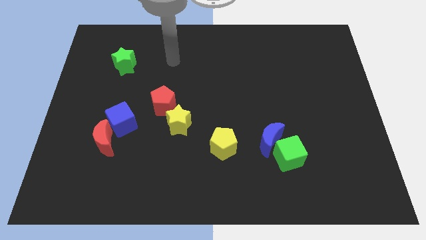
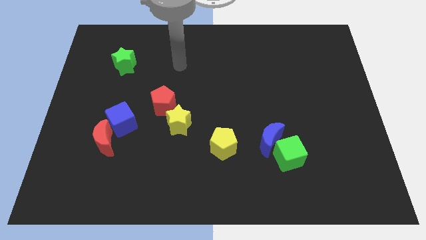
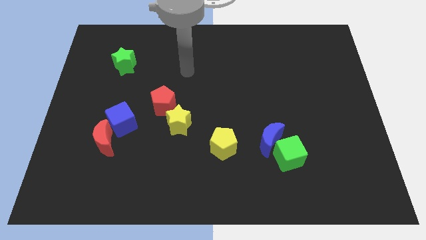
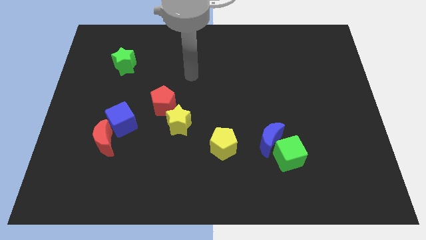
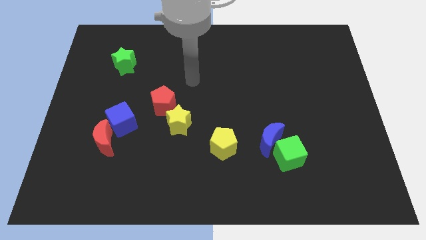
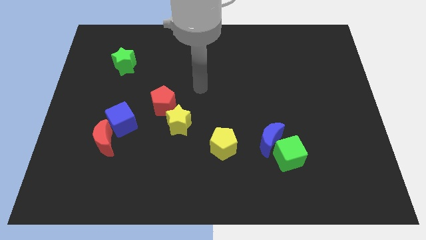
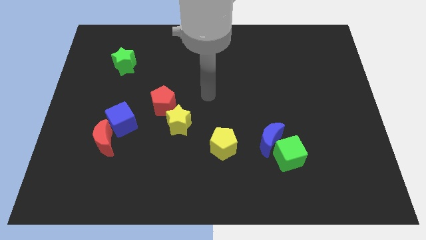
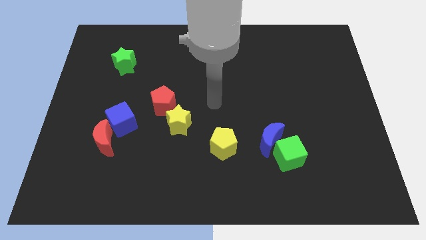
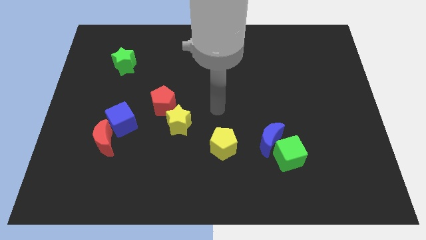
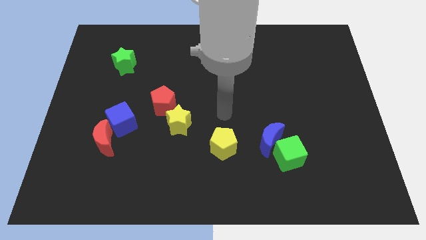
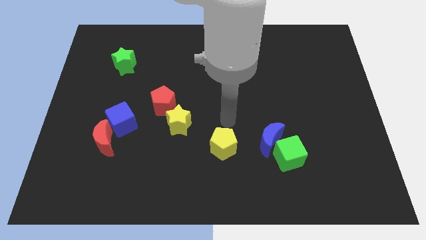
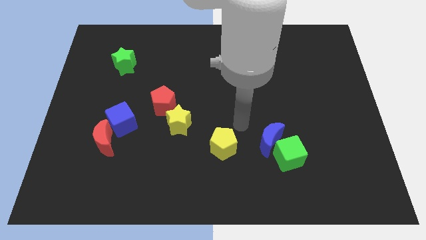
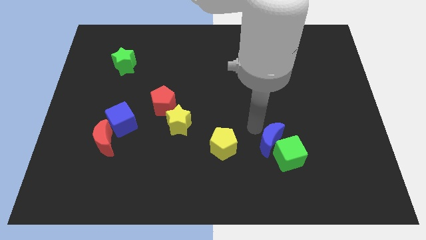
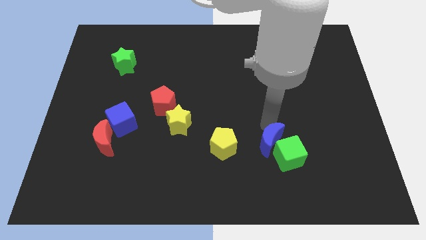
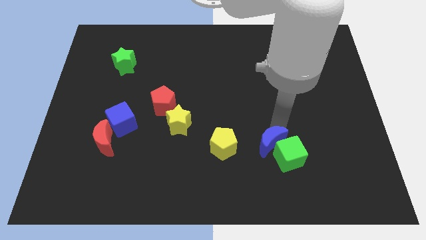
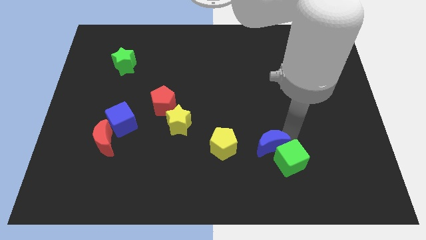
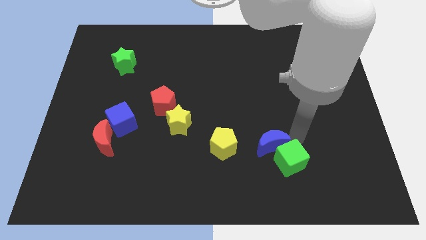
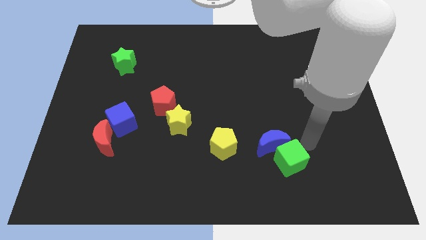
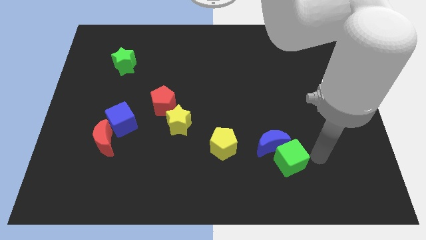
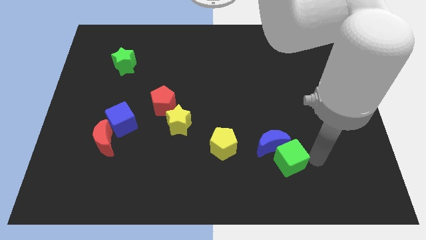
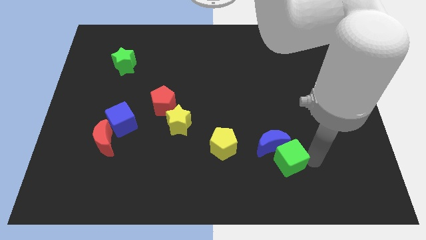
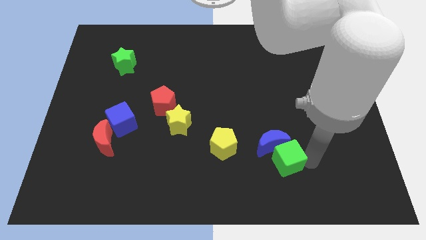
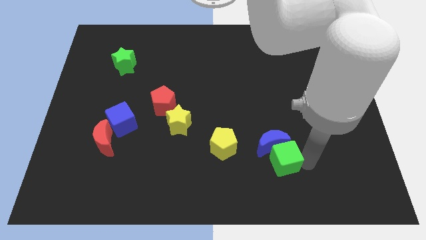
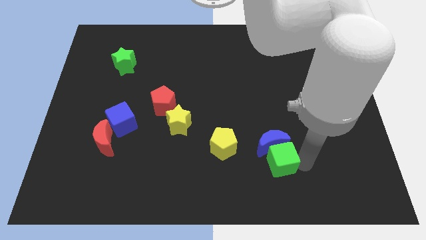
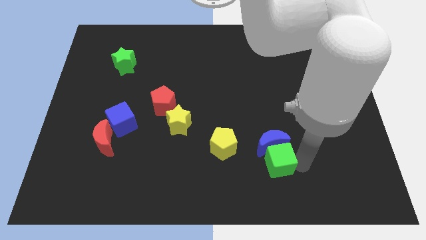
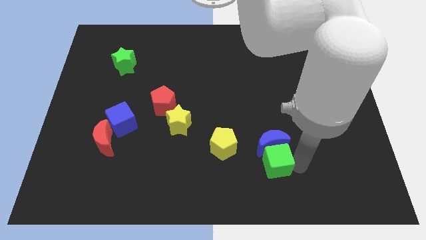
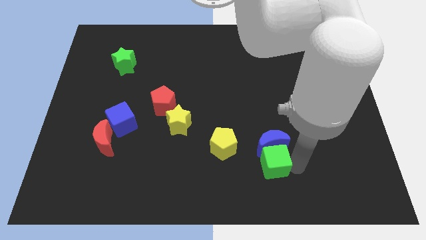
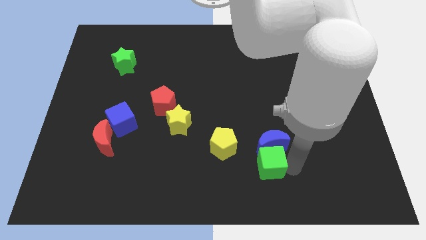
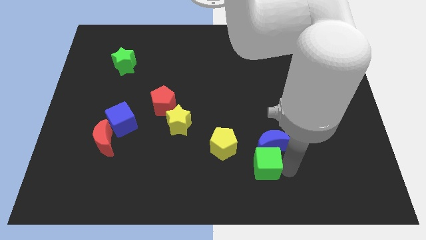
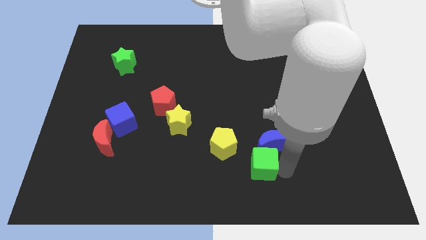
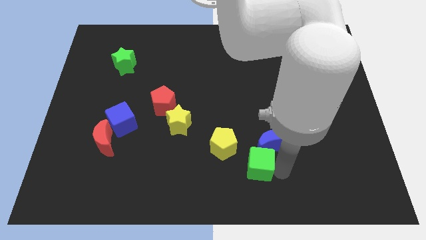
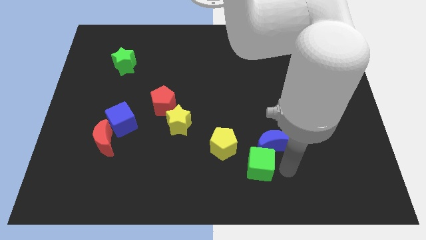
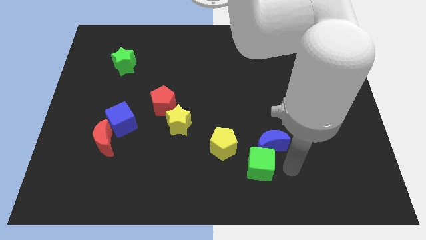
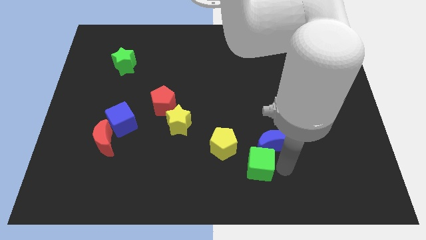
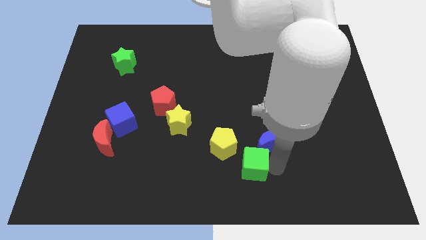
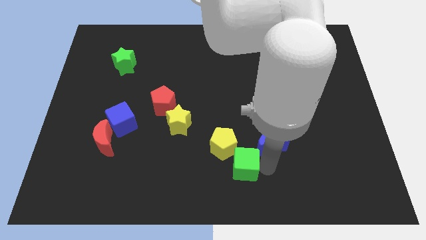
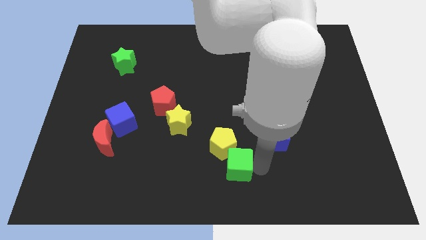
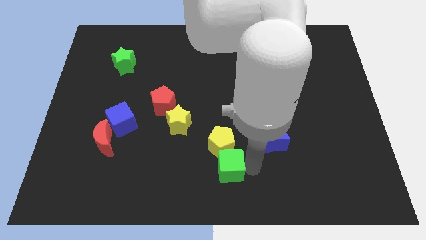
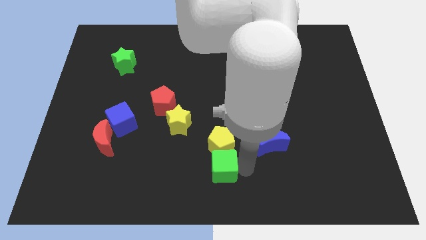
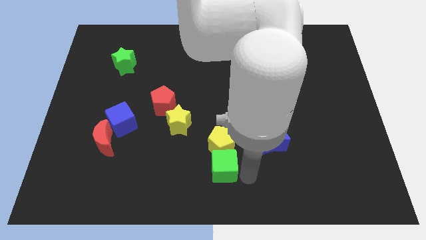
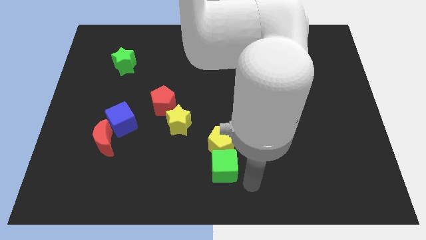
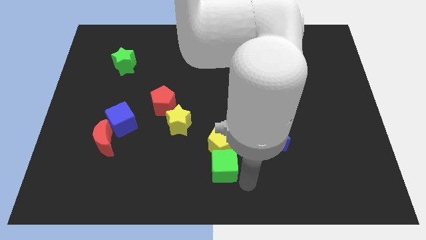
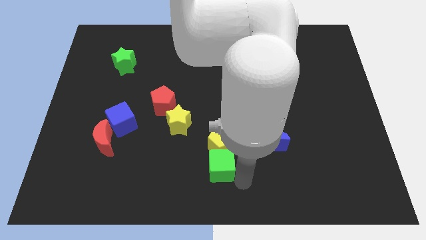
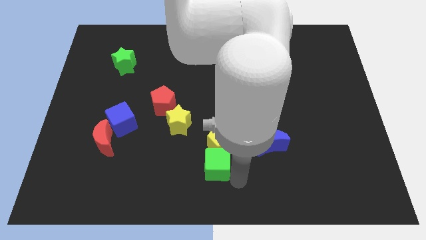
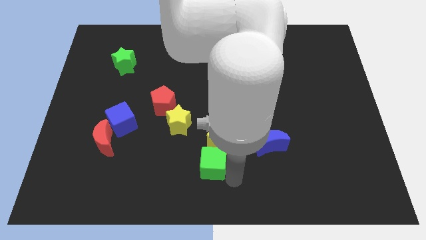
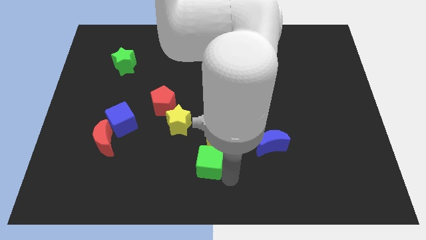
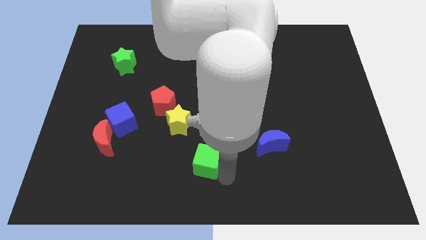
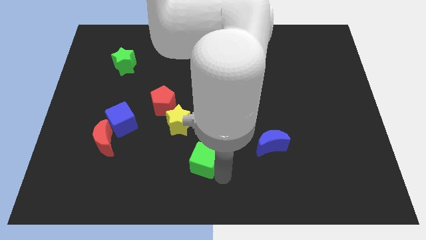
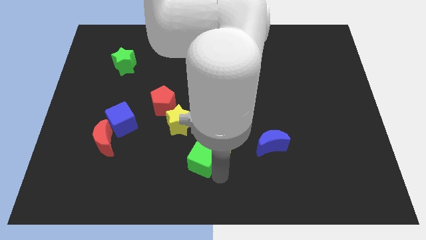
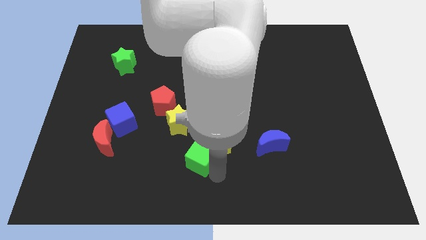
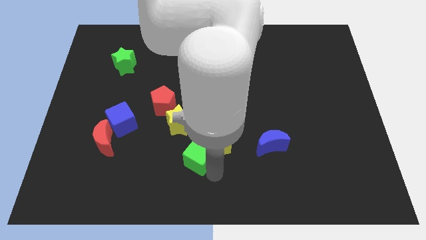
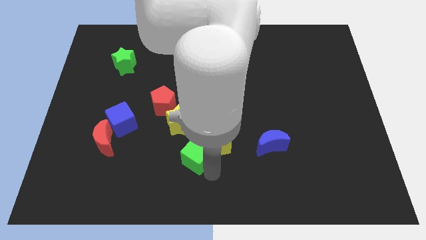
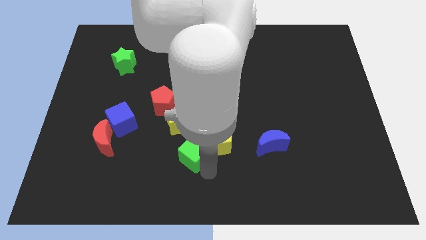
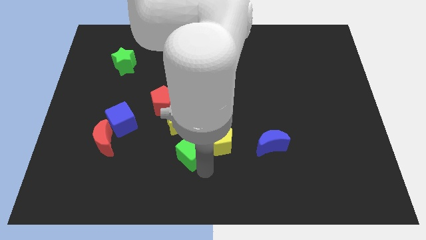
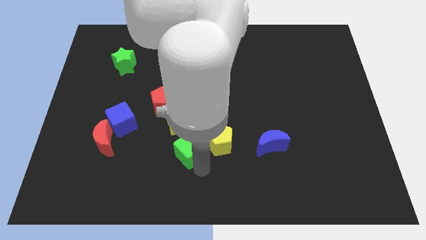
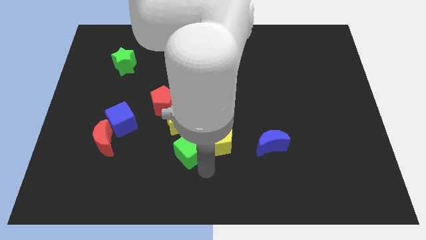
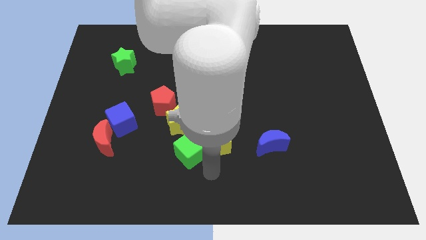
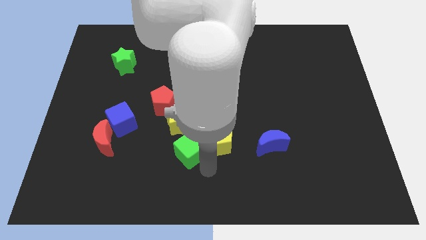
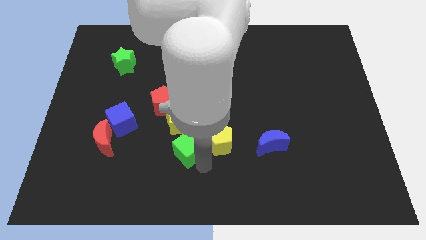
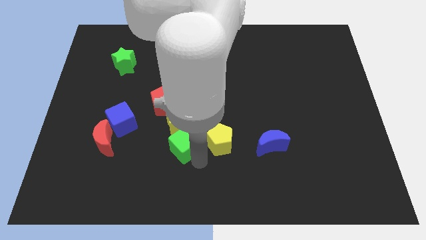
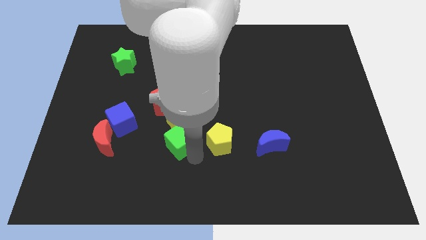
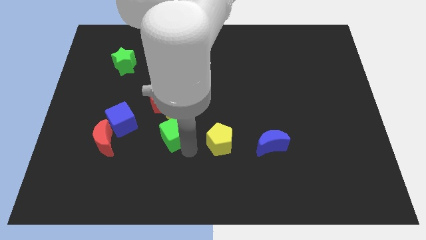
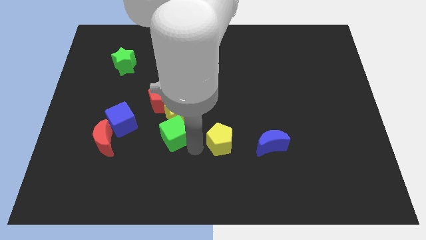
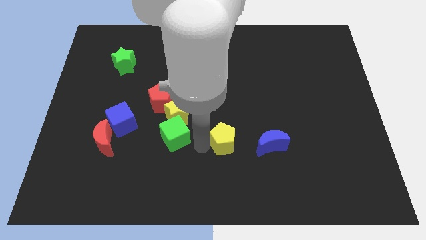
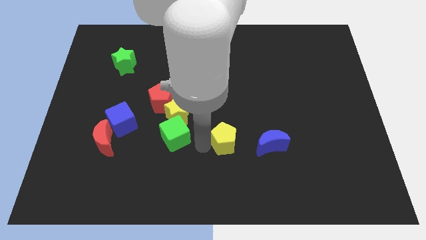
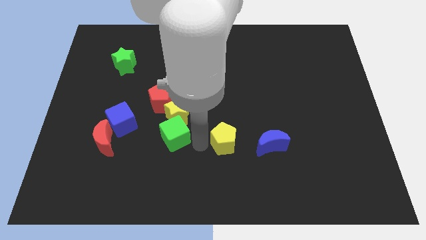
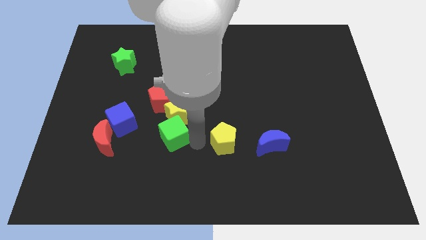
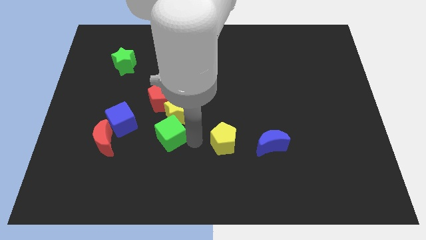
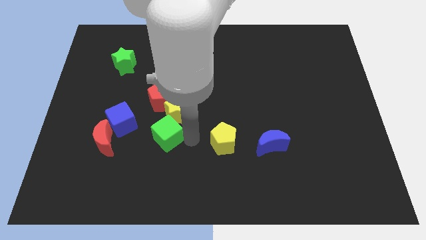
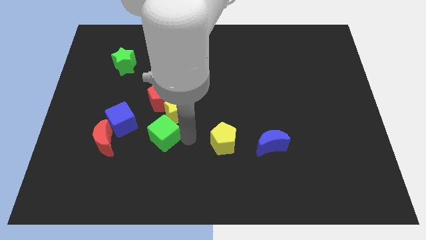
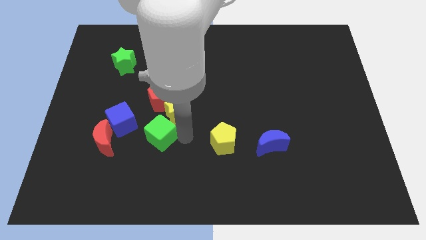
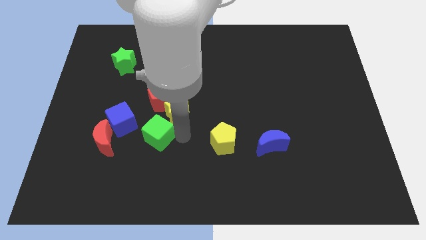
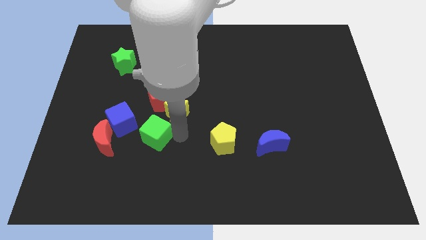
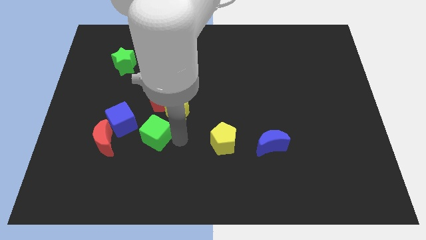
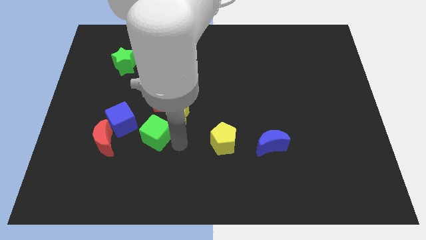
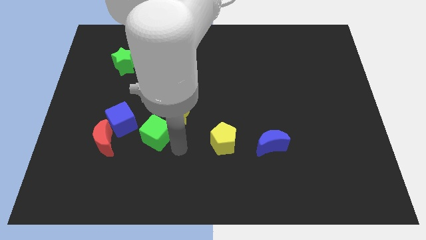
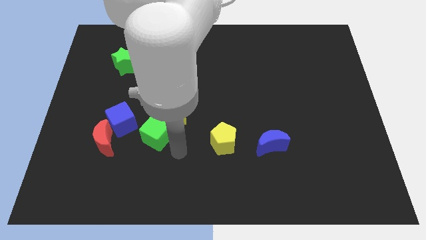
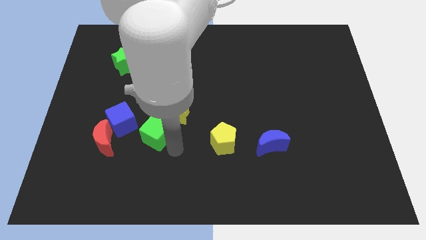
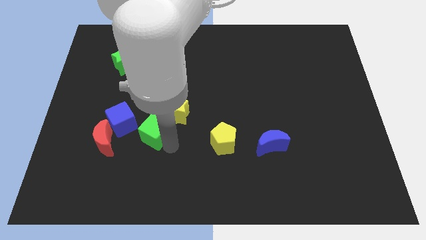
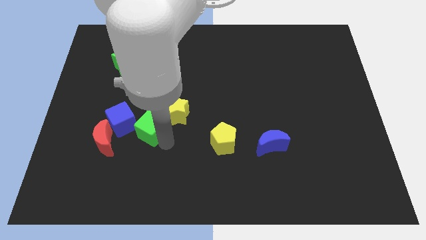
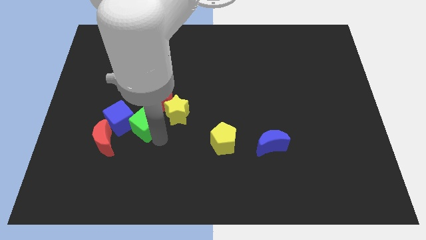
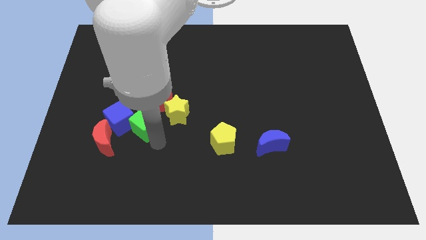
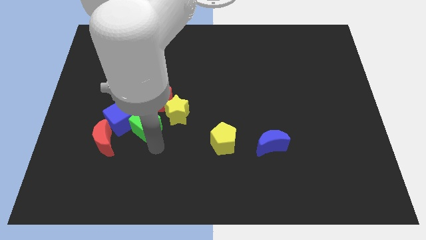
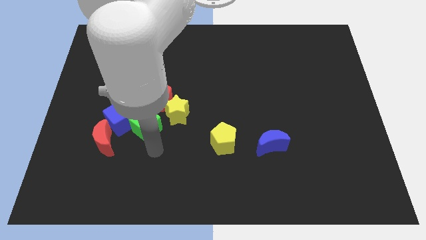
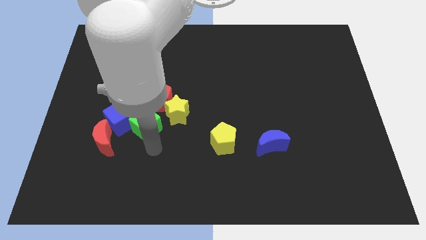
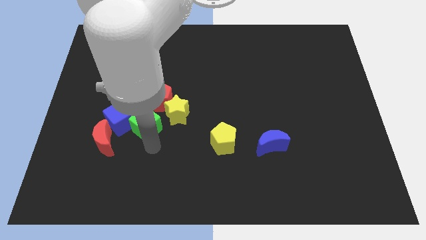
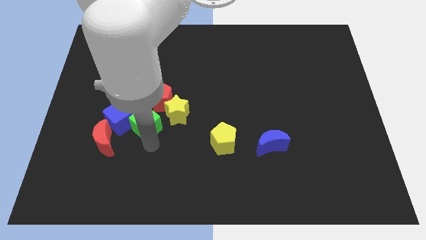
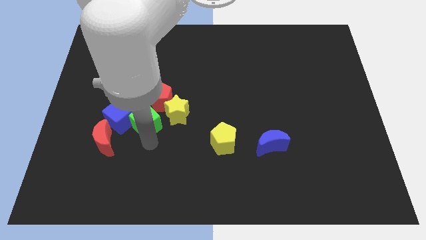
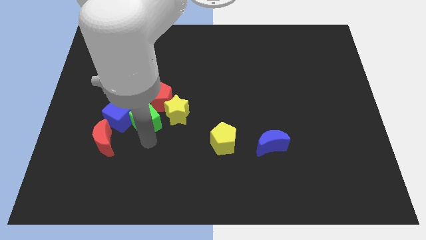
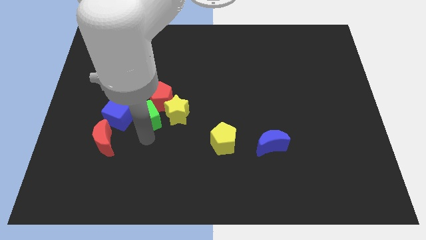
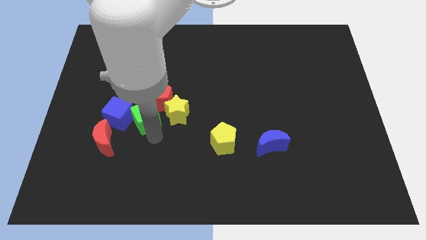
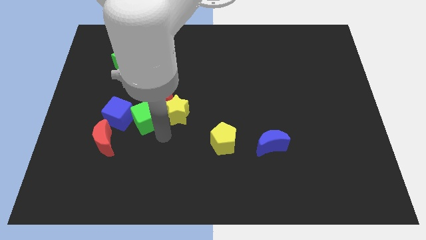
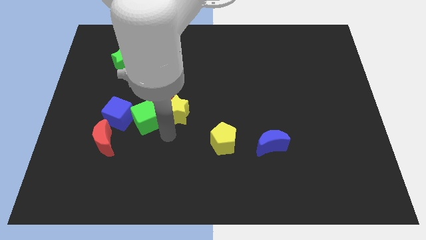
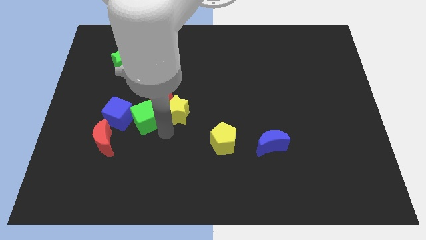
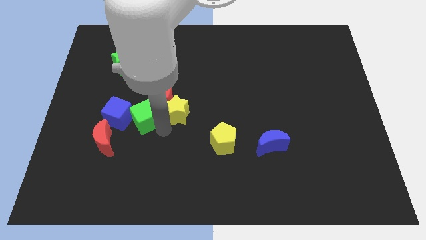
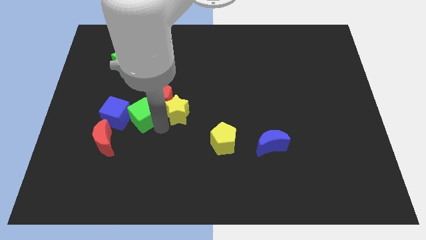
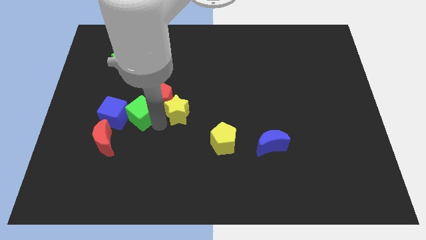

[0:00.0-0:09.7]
slide the green cube to the left side of the red pentagon
